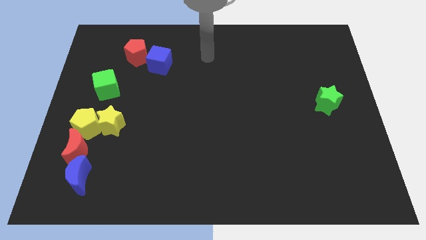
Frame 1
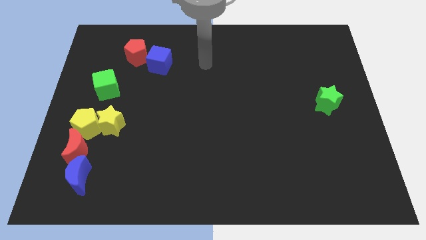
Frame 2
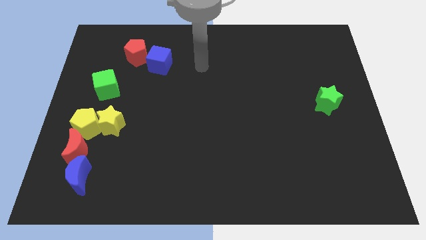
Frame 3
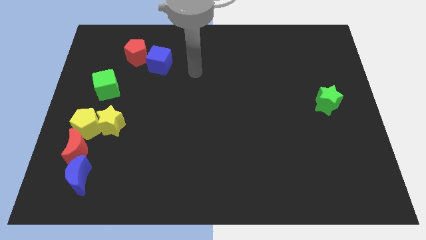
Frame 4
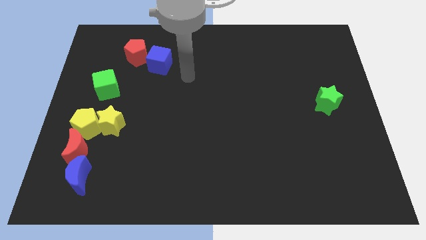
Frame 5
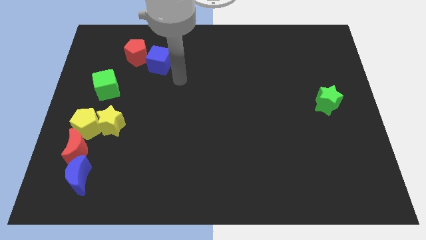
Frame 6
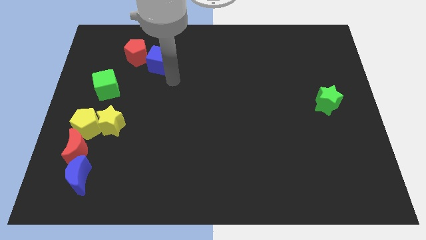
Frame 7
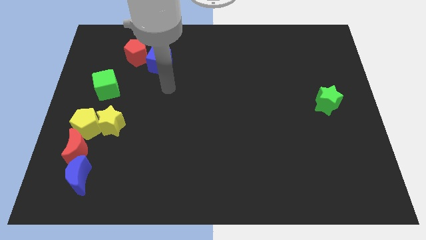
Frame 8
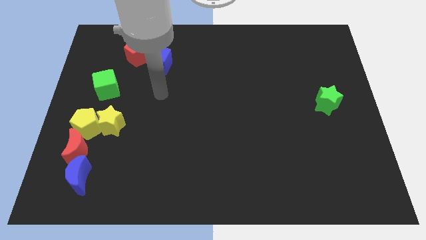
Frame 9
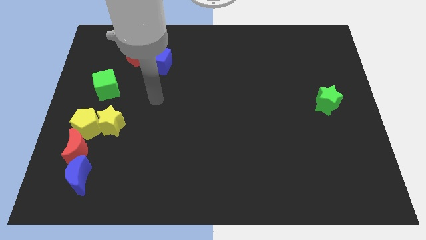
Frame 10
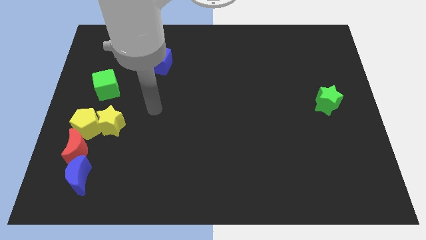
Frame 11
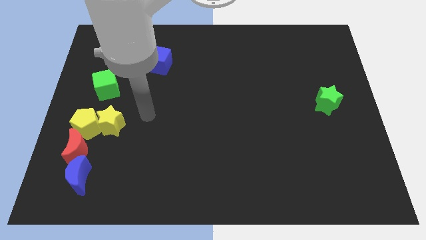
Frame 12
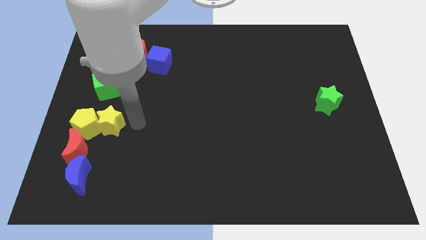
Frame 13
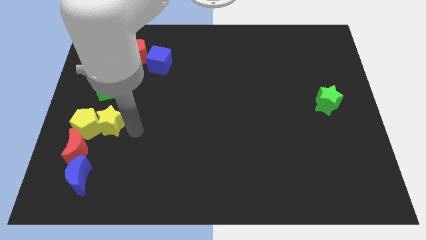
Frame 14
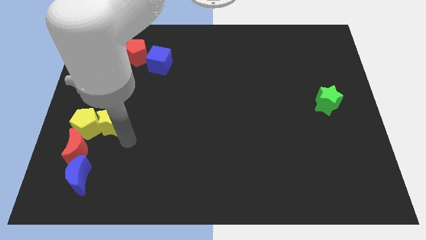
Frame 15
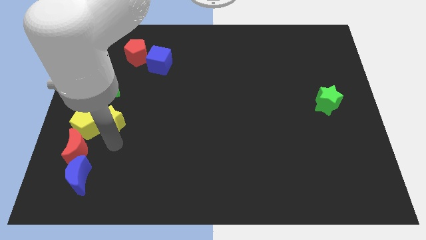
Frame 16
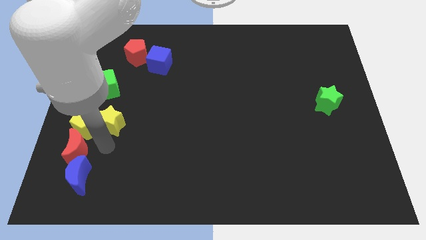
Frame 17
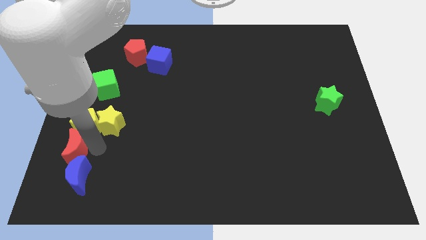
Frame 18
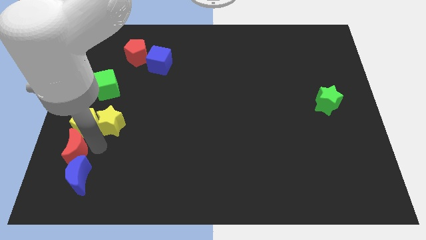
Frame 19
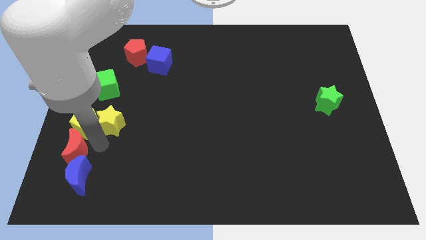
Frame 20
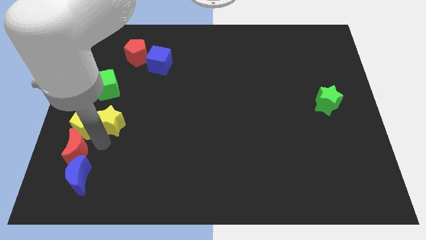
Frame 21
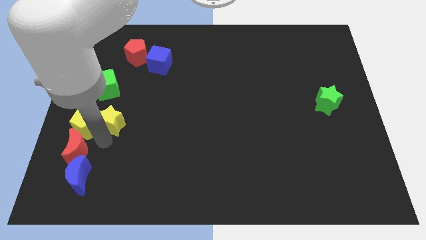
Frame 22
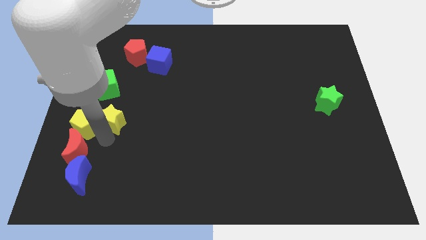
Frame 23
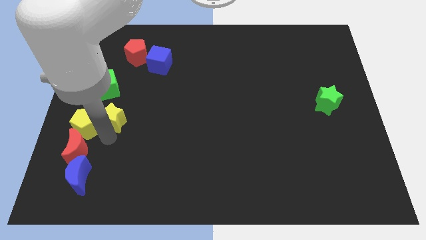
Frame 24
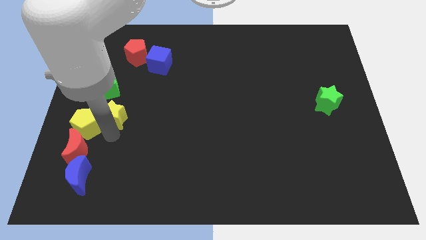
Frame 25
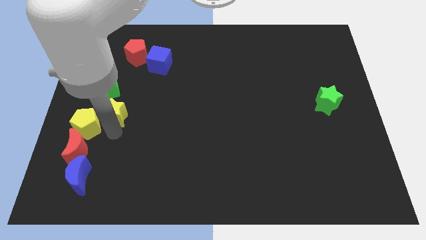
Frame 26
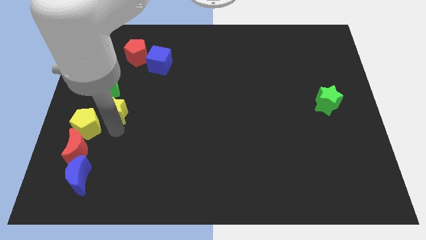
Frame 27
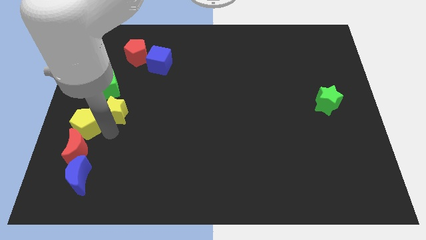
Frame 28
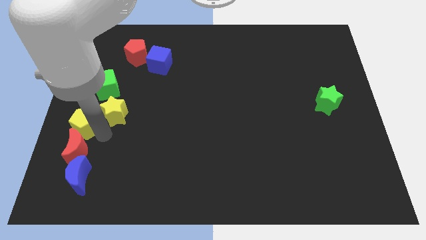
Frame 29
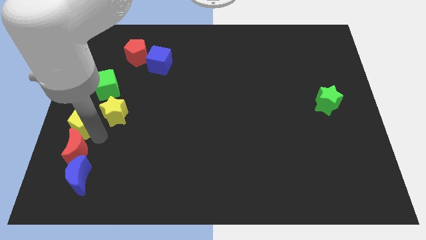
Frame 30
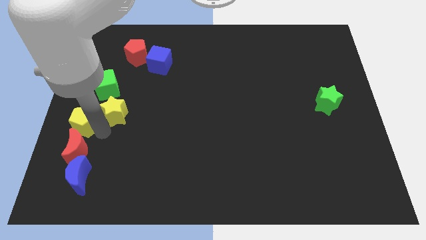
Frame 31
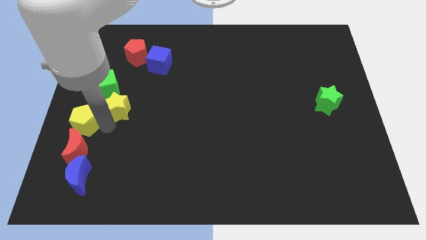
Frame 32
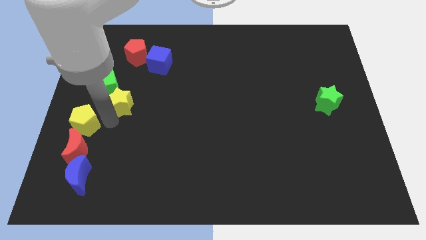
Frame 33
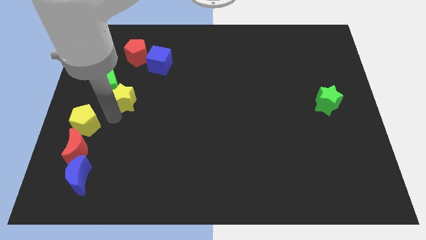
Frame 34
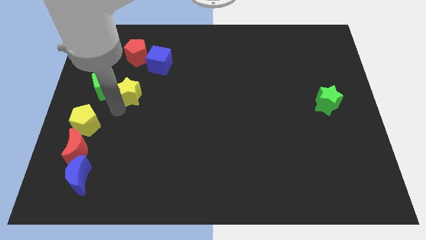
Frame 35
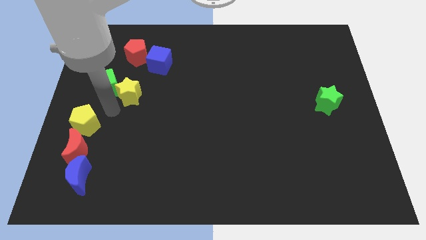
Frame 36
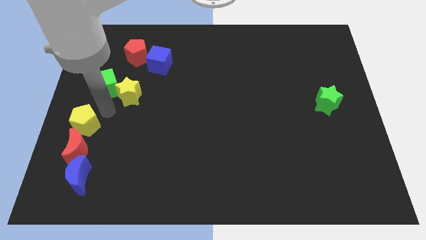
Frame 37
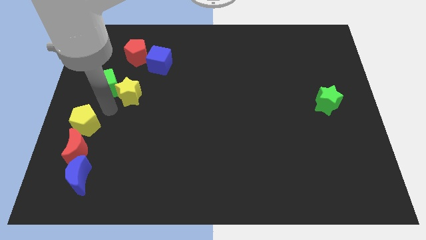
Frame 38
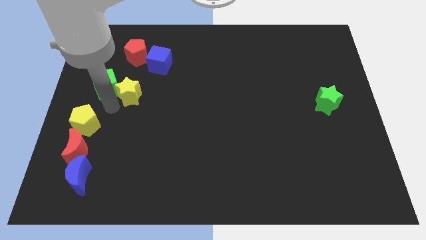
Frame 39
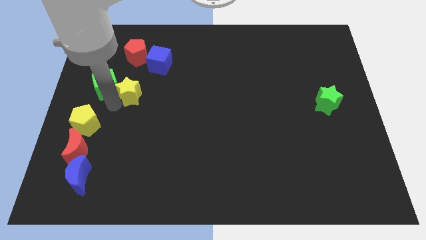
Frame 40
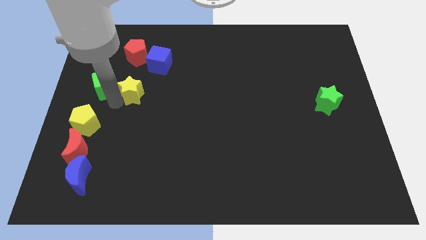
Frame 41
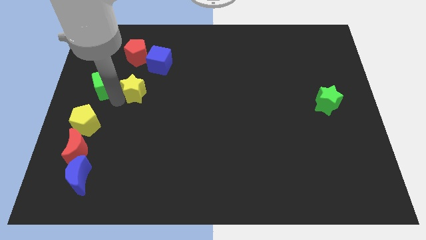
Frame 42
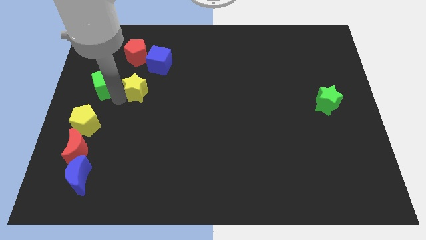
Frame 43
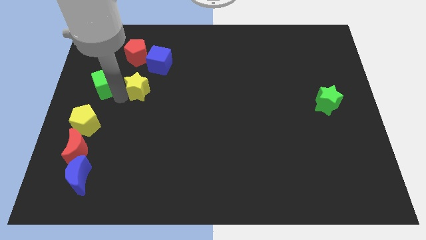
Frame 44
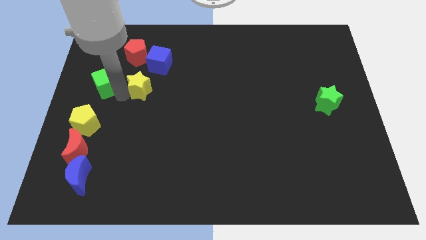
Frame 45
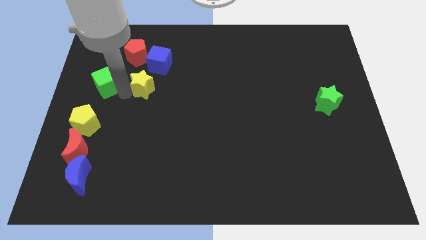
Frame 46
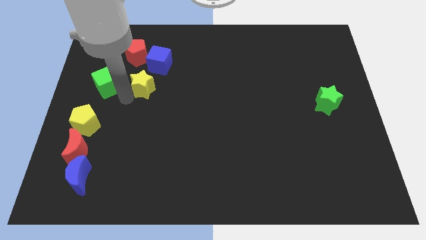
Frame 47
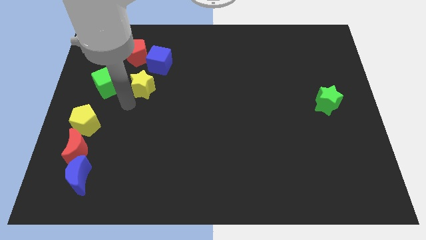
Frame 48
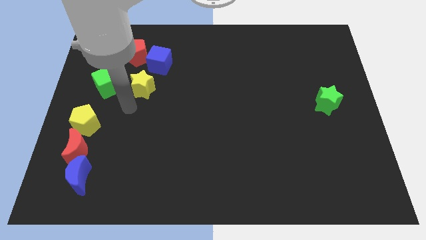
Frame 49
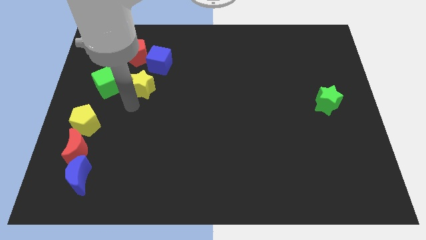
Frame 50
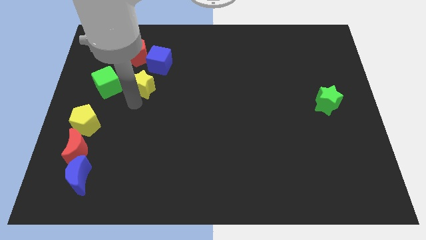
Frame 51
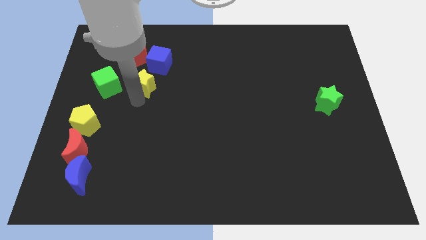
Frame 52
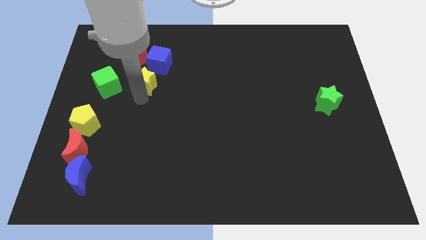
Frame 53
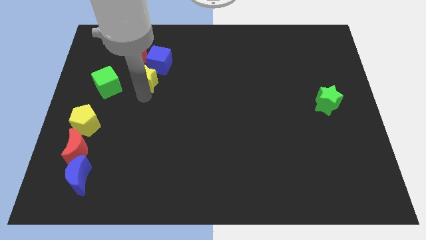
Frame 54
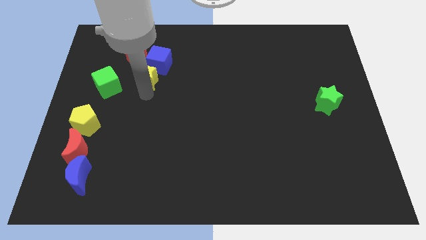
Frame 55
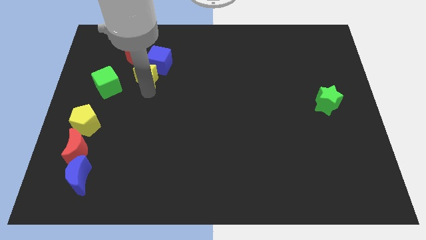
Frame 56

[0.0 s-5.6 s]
move the yellow star towards the blue cube

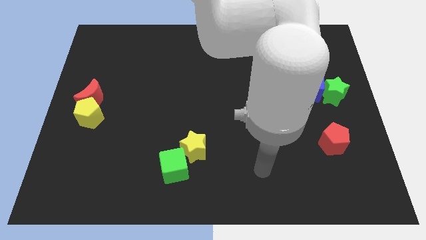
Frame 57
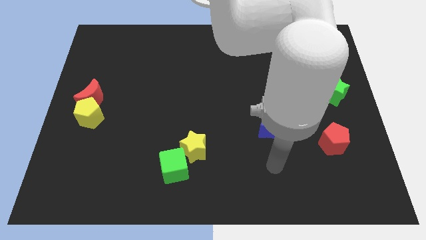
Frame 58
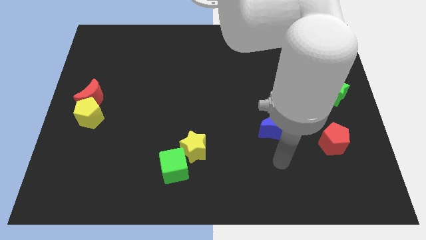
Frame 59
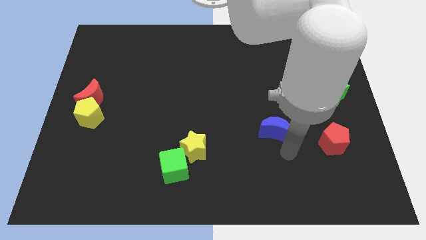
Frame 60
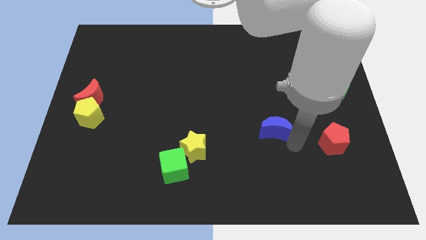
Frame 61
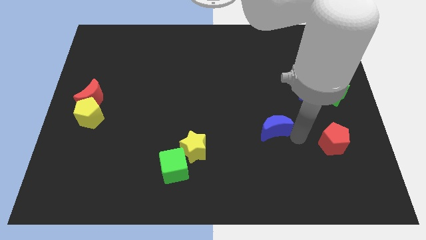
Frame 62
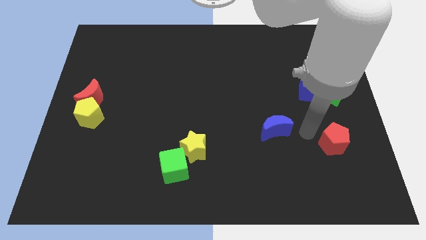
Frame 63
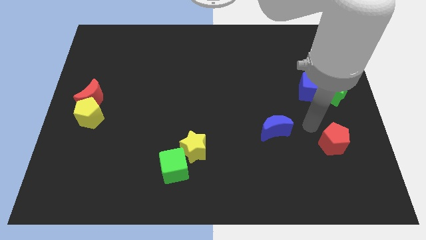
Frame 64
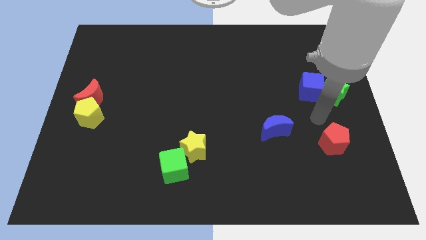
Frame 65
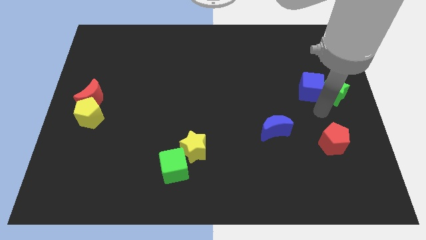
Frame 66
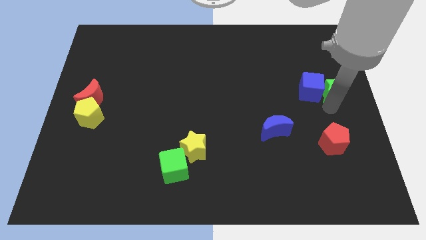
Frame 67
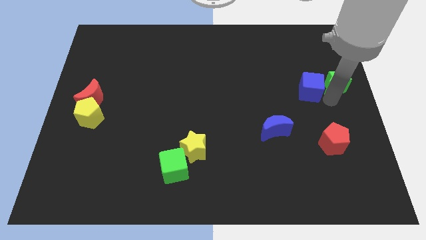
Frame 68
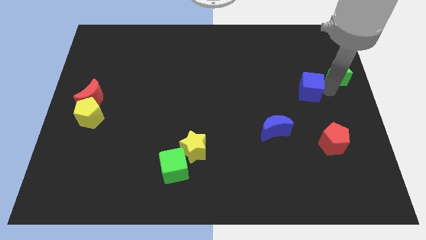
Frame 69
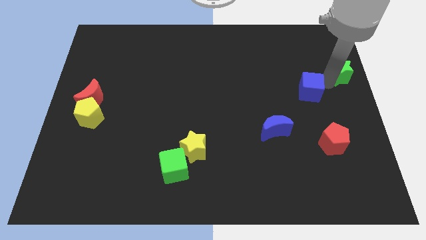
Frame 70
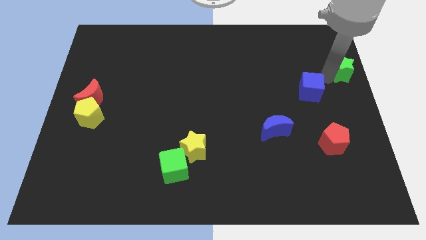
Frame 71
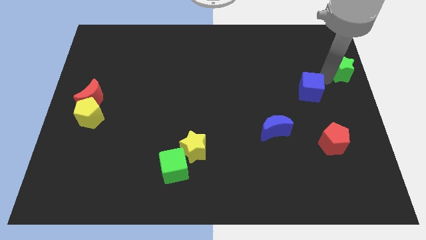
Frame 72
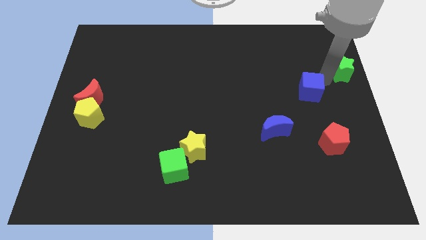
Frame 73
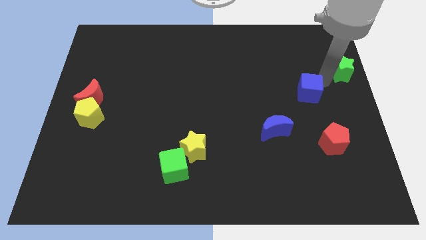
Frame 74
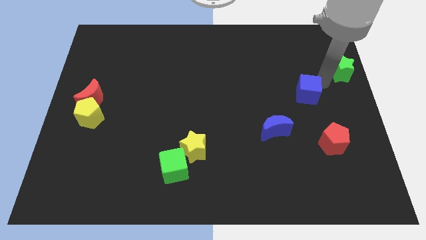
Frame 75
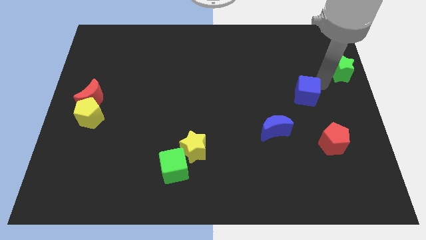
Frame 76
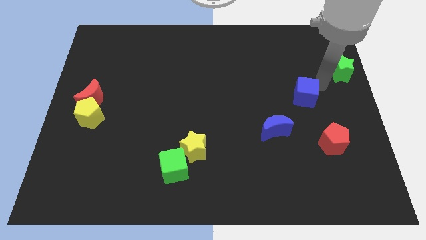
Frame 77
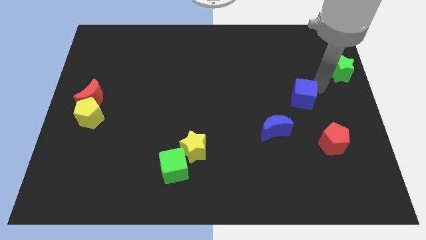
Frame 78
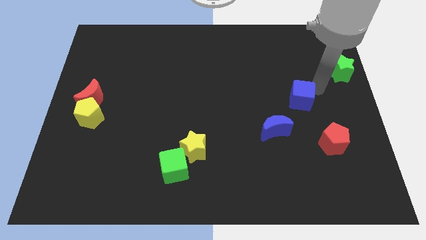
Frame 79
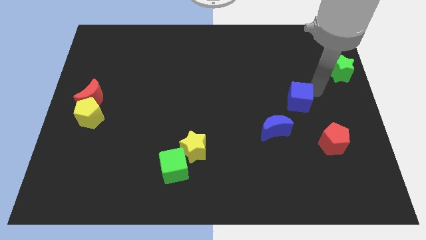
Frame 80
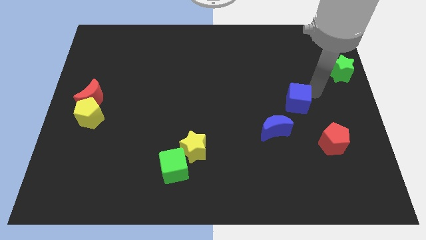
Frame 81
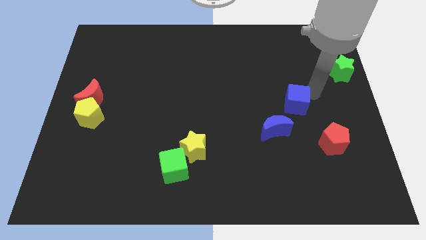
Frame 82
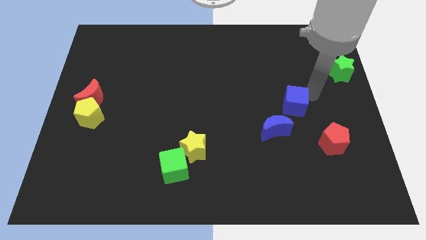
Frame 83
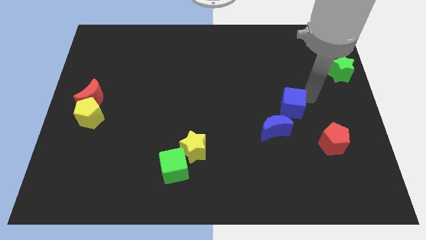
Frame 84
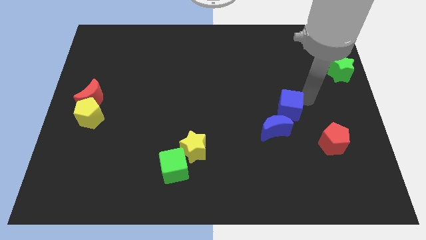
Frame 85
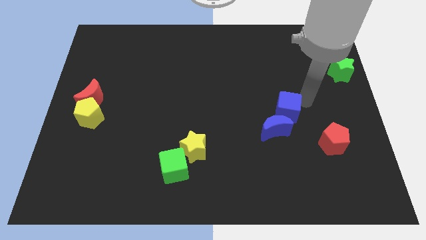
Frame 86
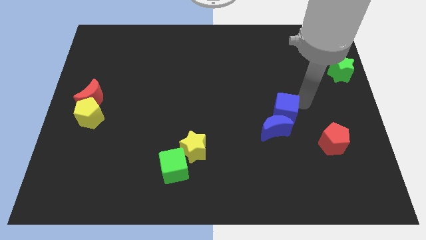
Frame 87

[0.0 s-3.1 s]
move the blue cube towards the blue moon
